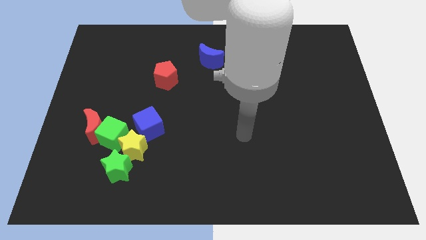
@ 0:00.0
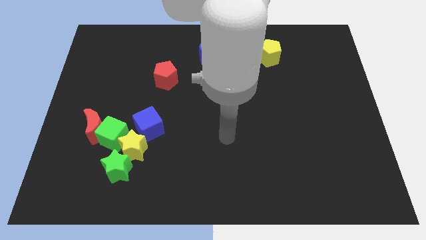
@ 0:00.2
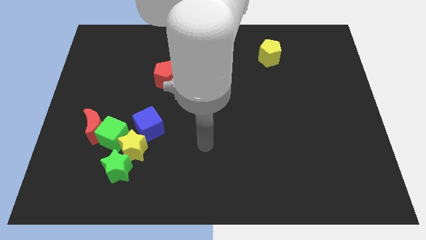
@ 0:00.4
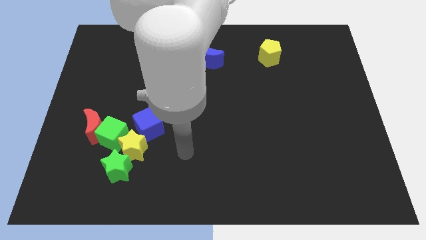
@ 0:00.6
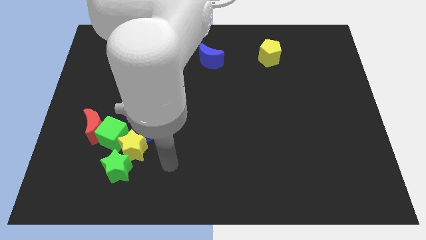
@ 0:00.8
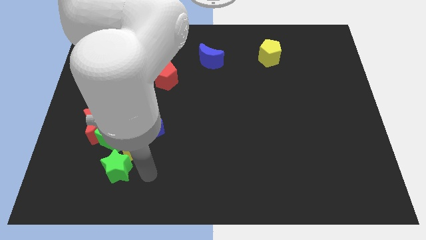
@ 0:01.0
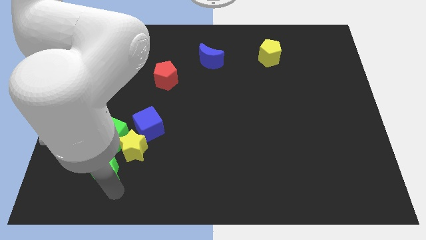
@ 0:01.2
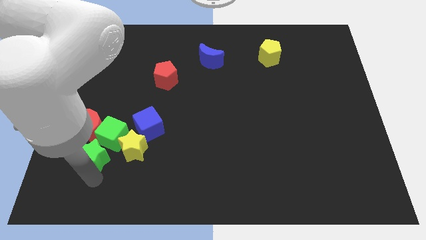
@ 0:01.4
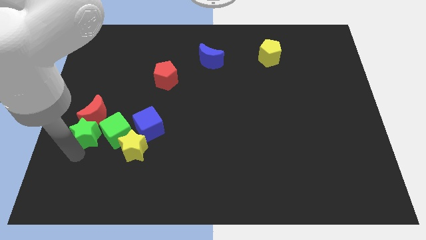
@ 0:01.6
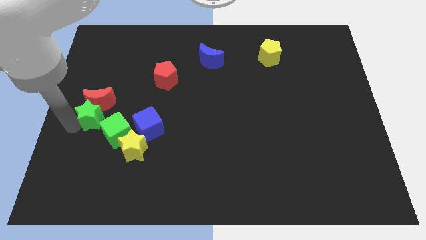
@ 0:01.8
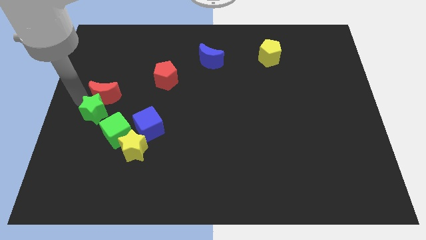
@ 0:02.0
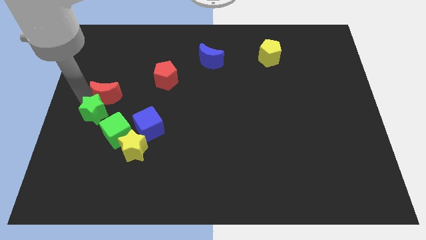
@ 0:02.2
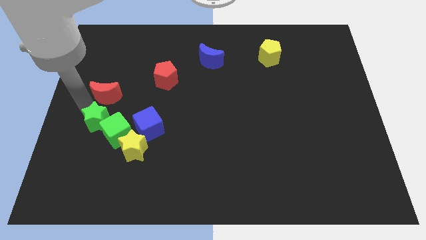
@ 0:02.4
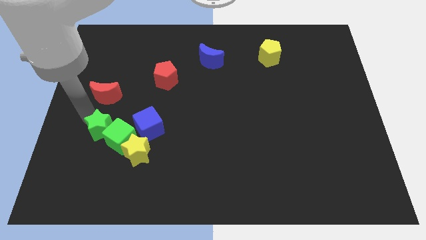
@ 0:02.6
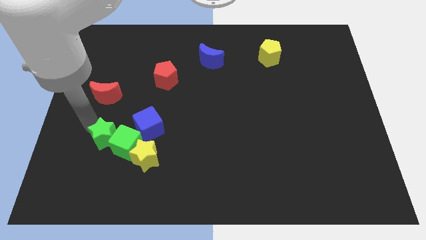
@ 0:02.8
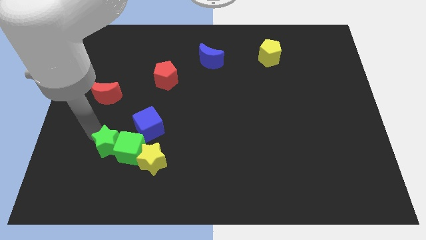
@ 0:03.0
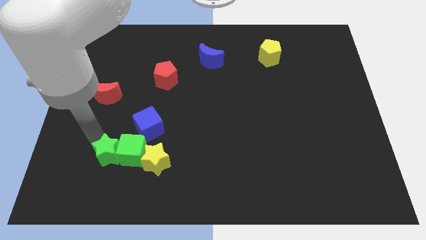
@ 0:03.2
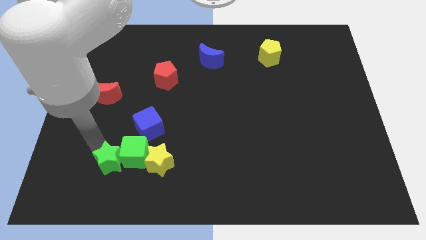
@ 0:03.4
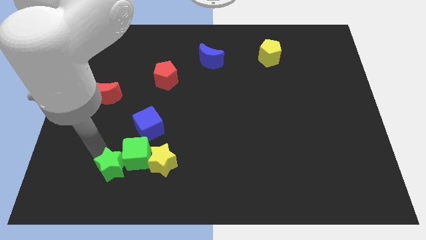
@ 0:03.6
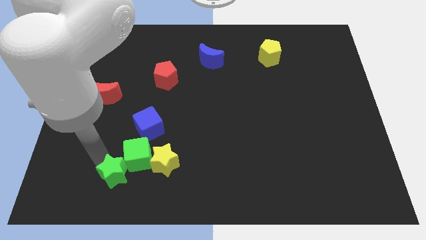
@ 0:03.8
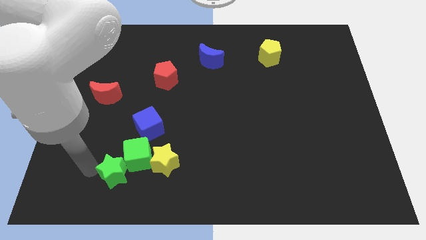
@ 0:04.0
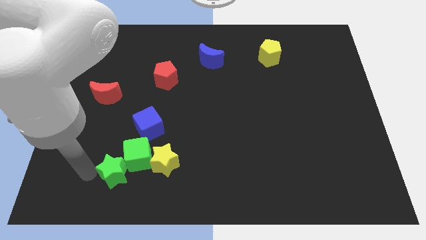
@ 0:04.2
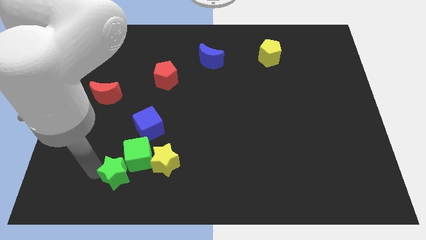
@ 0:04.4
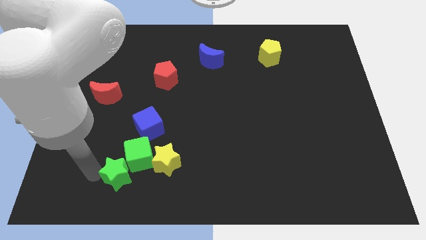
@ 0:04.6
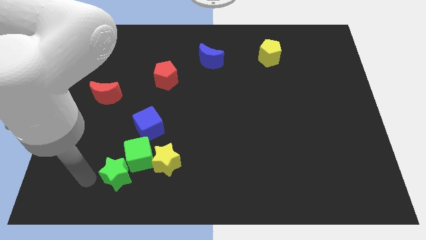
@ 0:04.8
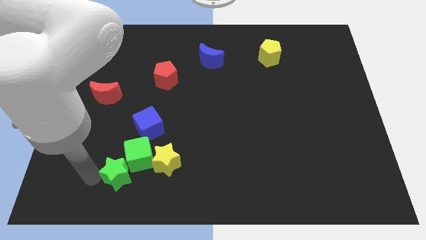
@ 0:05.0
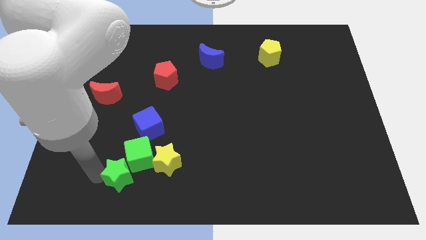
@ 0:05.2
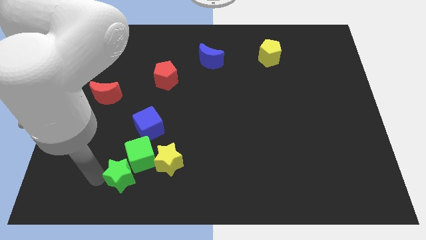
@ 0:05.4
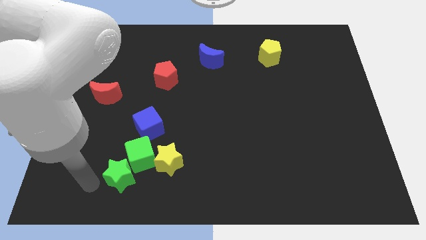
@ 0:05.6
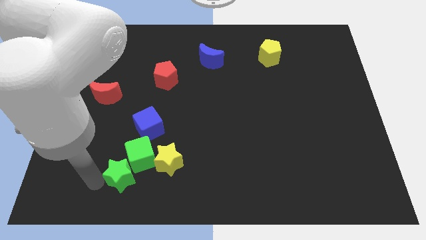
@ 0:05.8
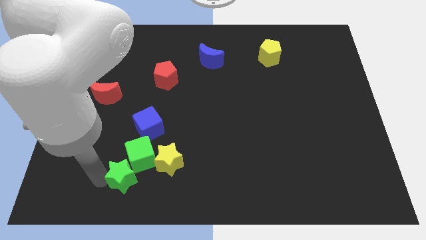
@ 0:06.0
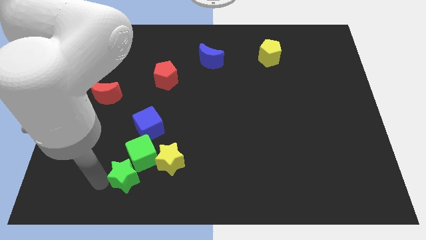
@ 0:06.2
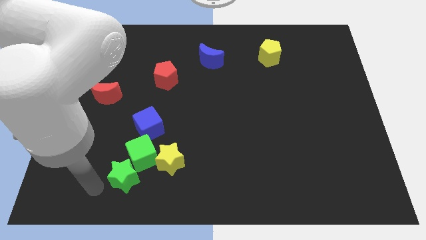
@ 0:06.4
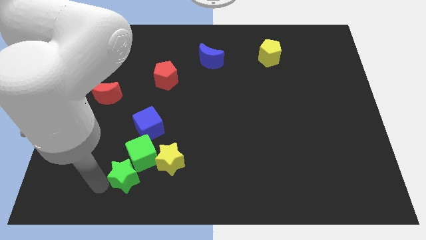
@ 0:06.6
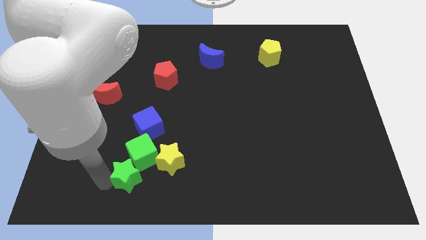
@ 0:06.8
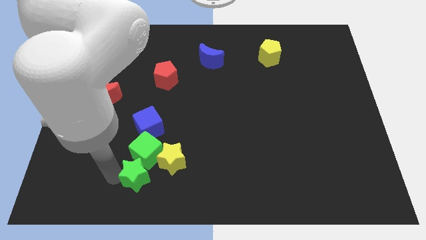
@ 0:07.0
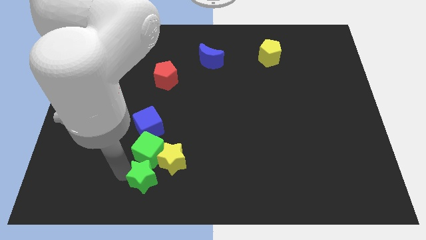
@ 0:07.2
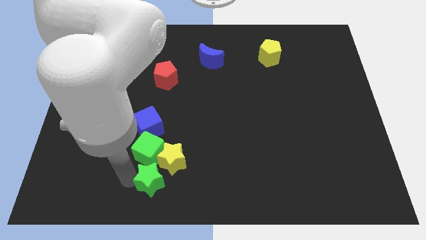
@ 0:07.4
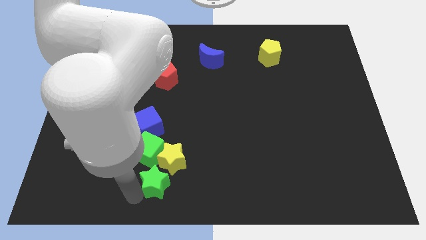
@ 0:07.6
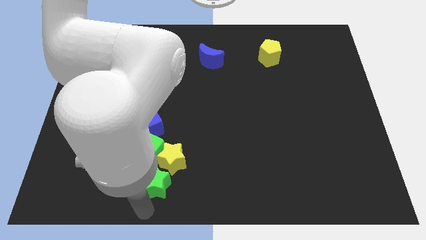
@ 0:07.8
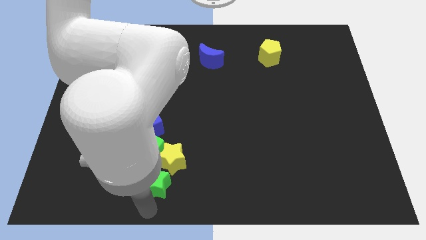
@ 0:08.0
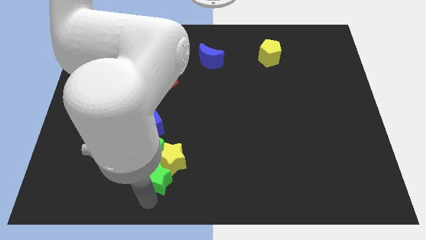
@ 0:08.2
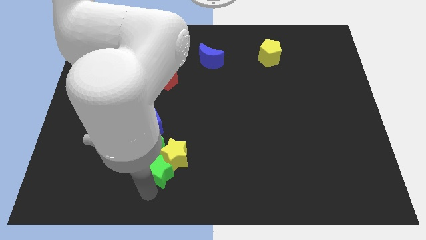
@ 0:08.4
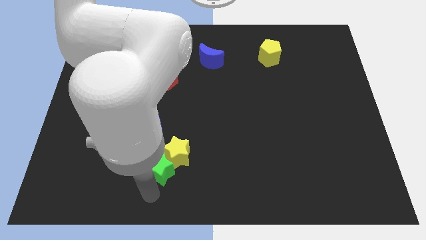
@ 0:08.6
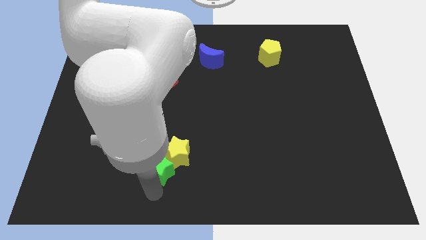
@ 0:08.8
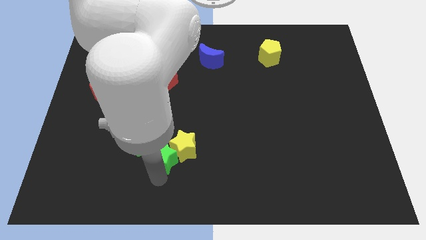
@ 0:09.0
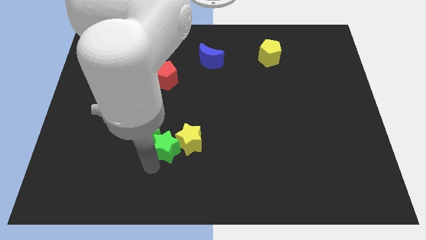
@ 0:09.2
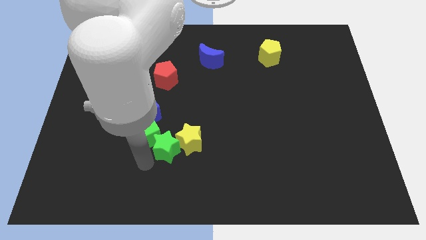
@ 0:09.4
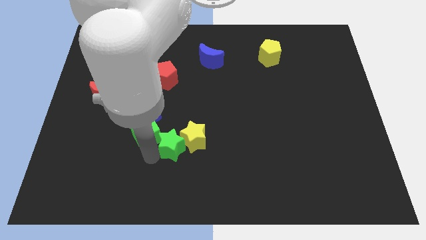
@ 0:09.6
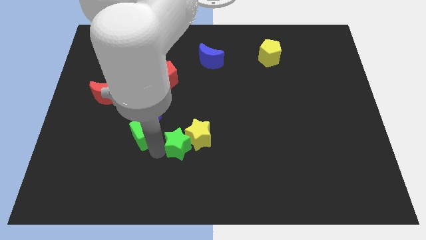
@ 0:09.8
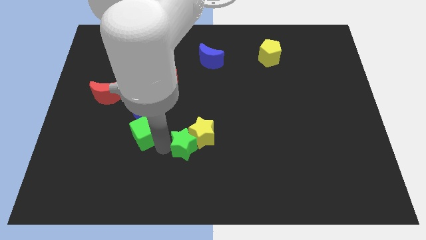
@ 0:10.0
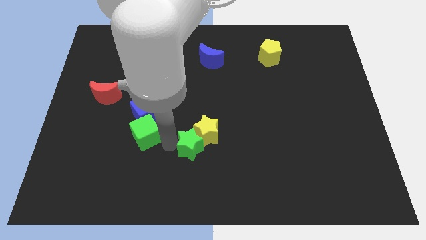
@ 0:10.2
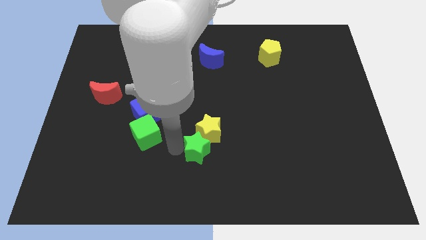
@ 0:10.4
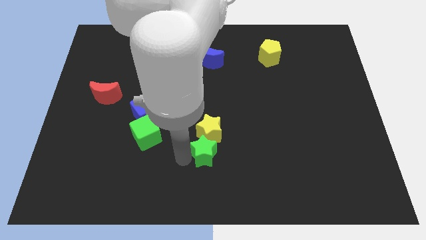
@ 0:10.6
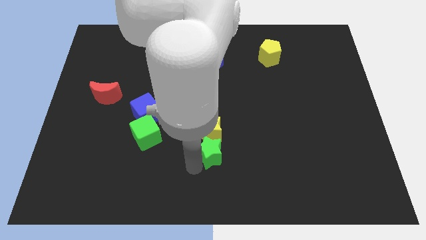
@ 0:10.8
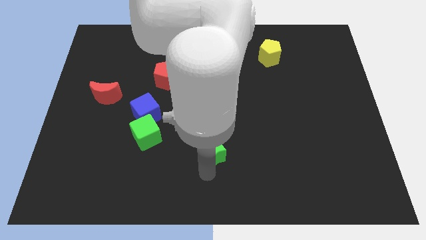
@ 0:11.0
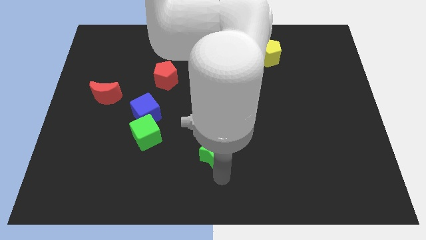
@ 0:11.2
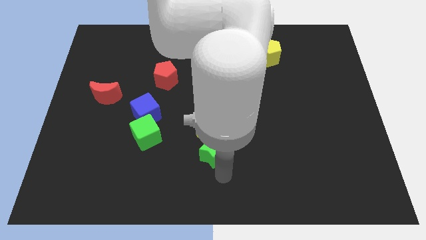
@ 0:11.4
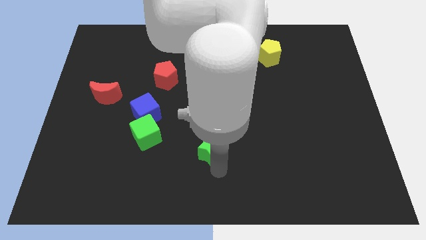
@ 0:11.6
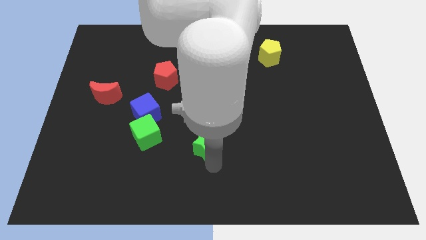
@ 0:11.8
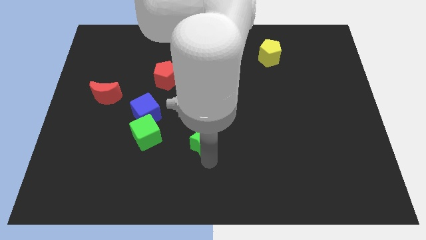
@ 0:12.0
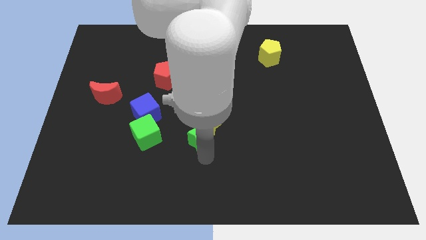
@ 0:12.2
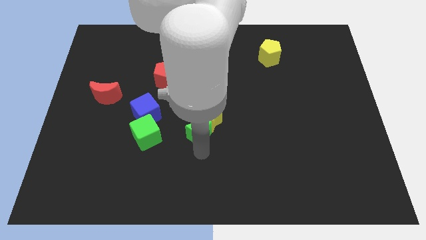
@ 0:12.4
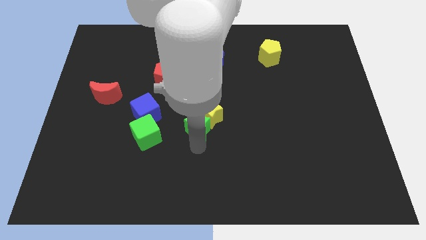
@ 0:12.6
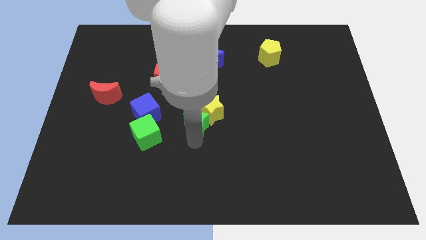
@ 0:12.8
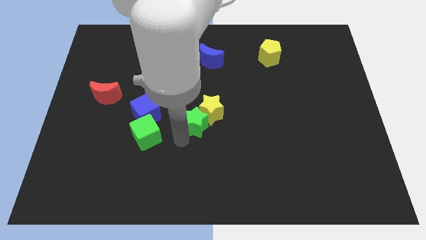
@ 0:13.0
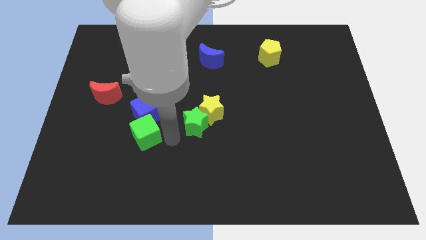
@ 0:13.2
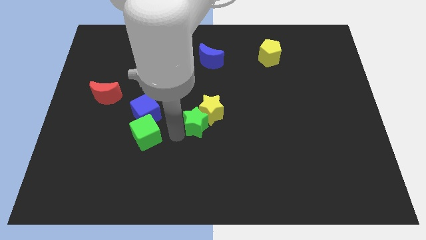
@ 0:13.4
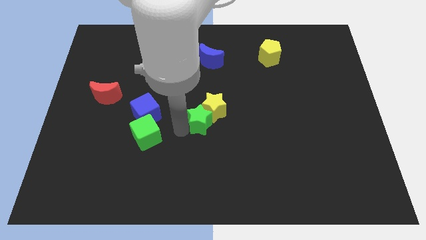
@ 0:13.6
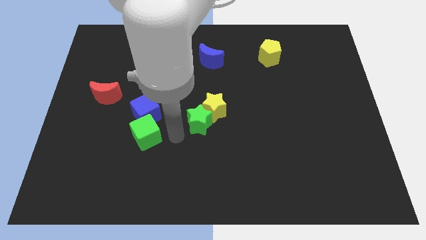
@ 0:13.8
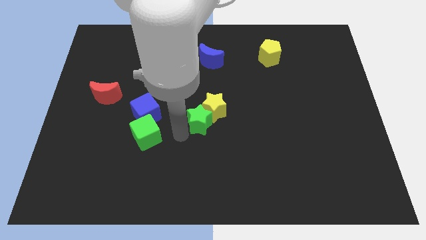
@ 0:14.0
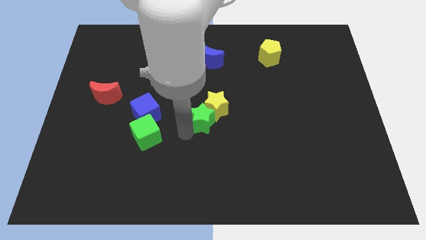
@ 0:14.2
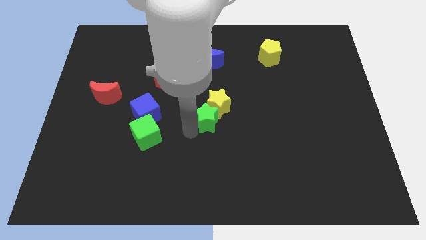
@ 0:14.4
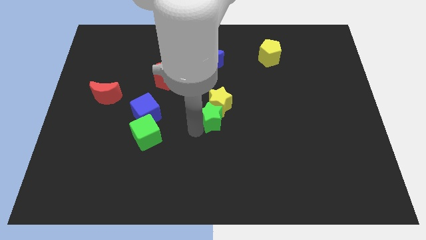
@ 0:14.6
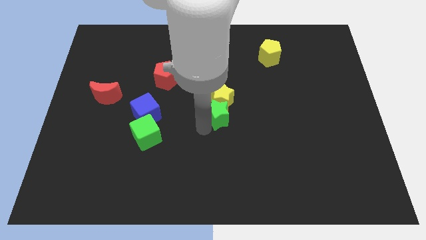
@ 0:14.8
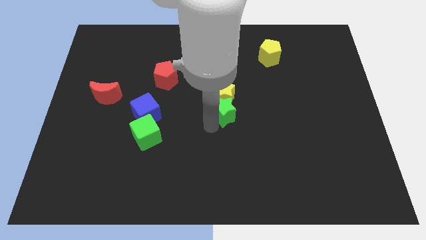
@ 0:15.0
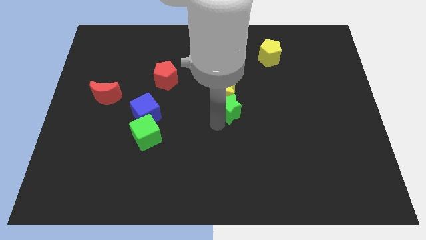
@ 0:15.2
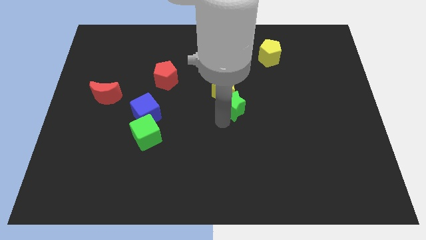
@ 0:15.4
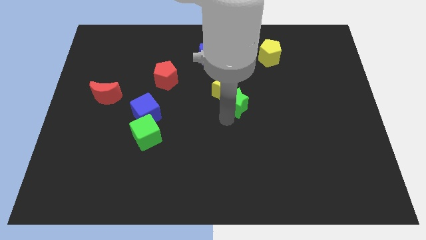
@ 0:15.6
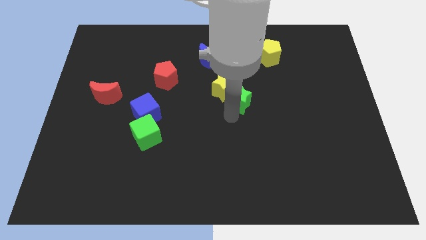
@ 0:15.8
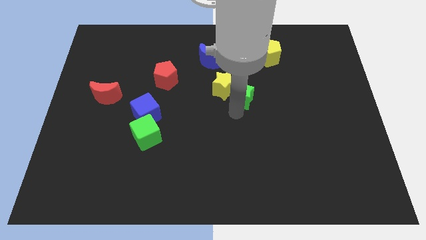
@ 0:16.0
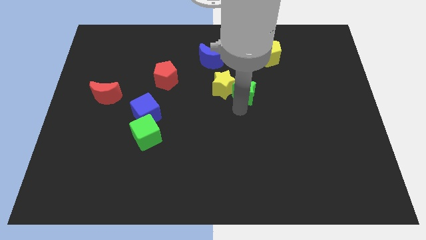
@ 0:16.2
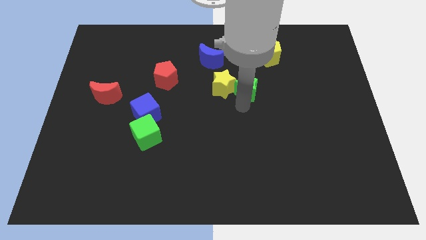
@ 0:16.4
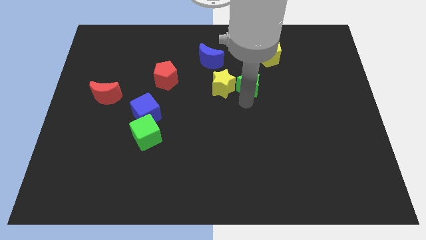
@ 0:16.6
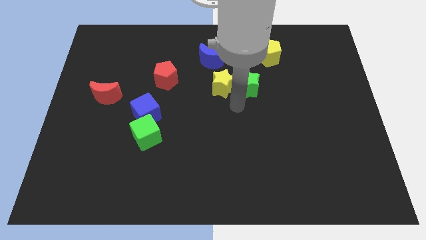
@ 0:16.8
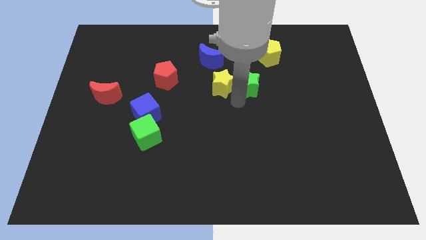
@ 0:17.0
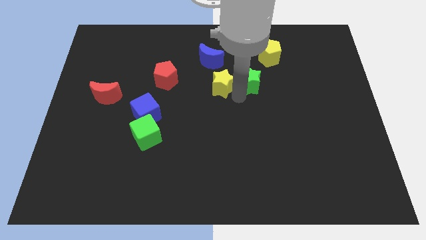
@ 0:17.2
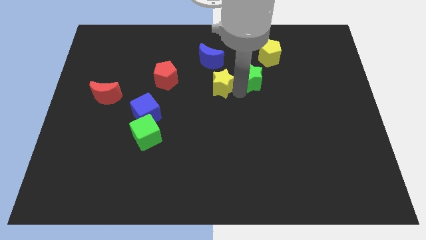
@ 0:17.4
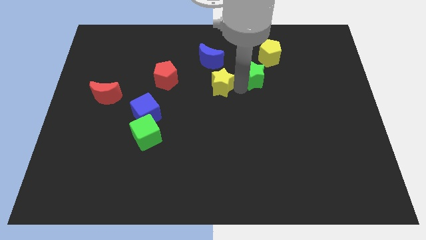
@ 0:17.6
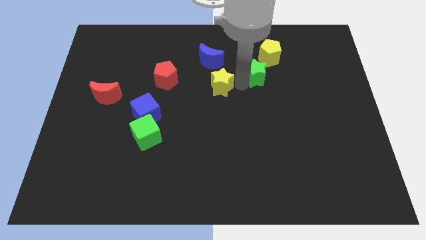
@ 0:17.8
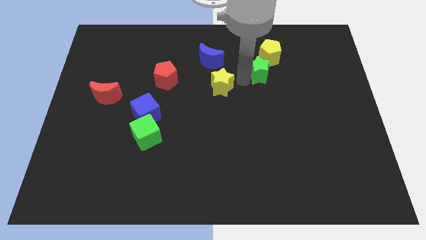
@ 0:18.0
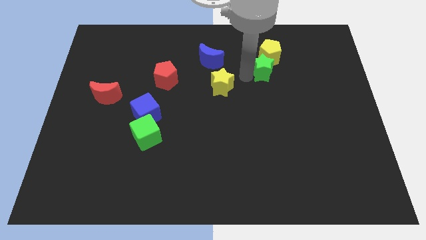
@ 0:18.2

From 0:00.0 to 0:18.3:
put the green star close to the yellow pentagon
